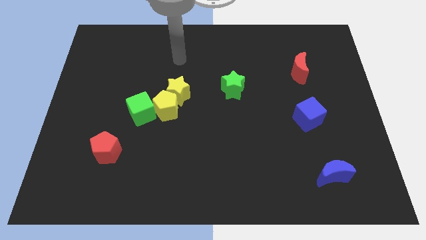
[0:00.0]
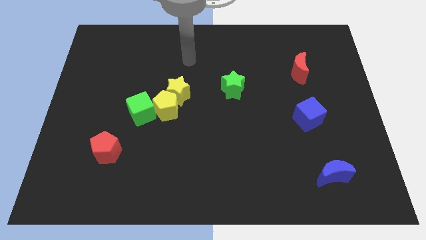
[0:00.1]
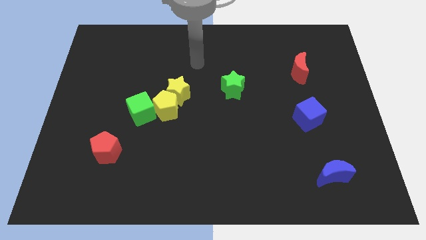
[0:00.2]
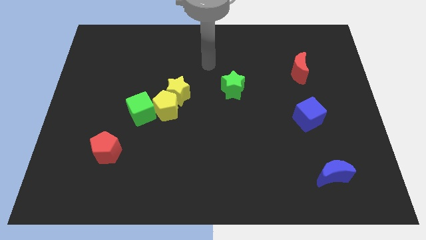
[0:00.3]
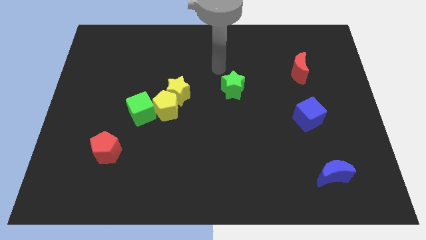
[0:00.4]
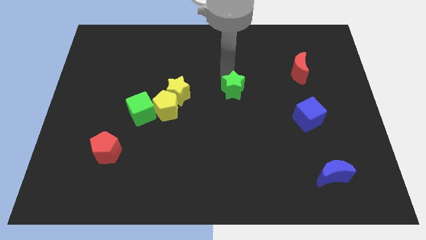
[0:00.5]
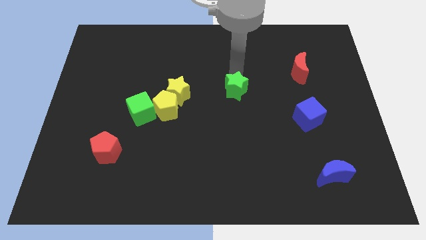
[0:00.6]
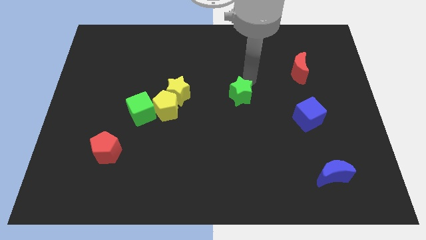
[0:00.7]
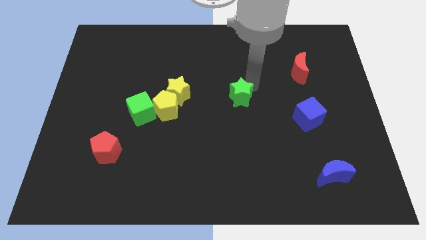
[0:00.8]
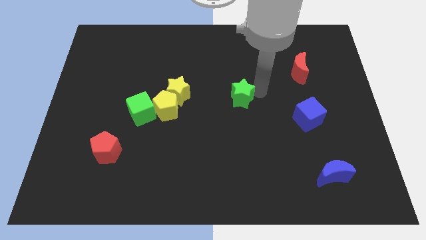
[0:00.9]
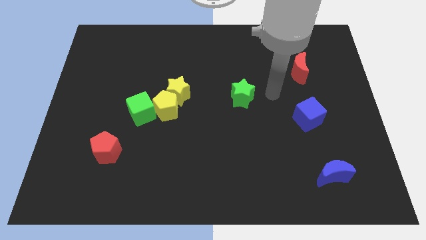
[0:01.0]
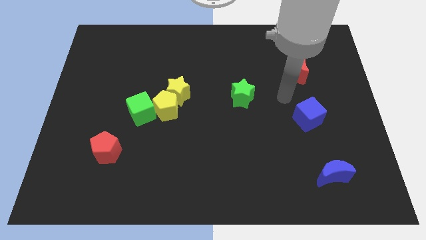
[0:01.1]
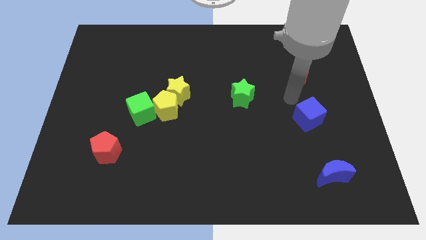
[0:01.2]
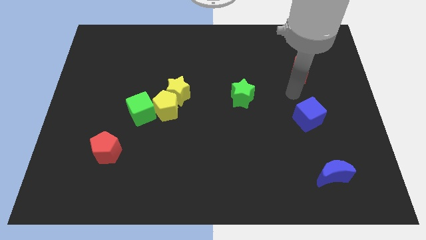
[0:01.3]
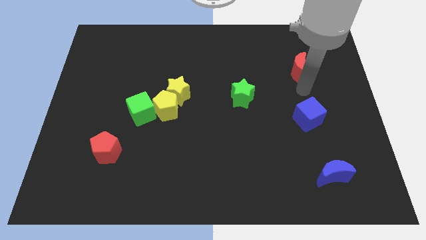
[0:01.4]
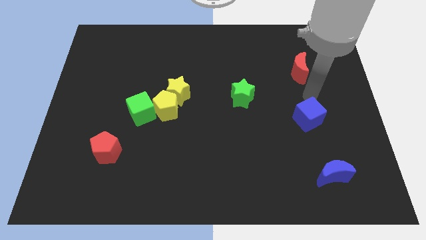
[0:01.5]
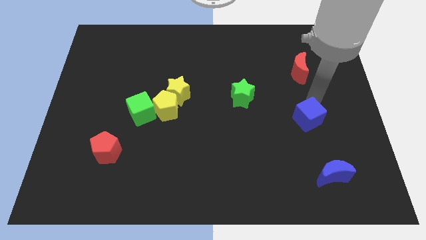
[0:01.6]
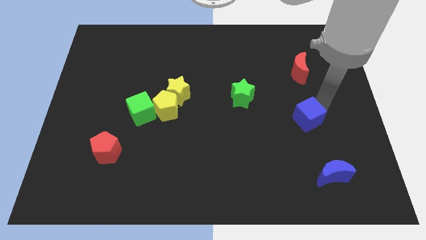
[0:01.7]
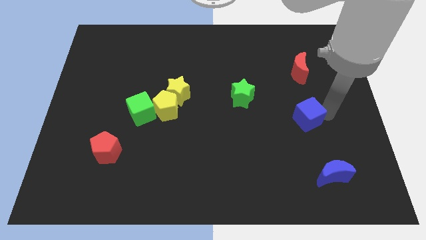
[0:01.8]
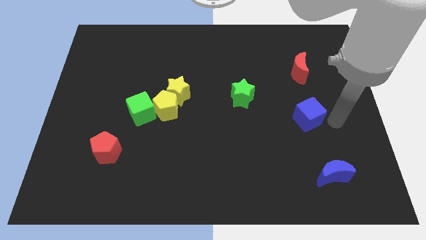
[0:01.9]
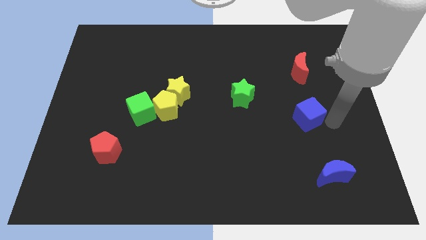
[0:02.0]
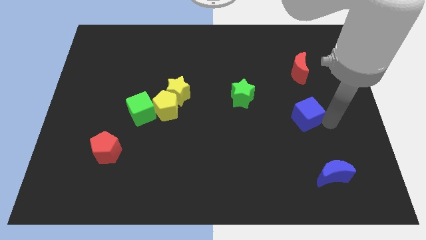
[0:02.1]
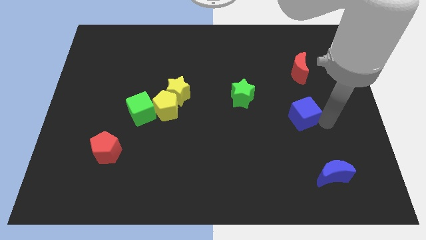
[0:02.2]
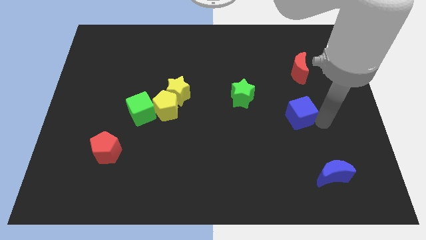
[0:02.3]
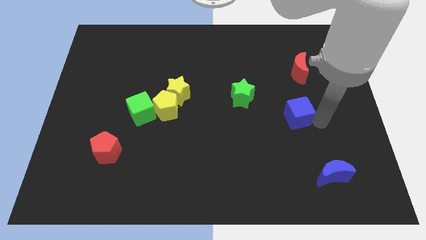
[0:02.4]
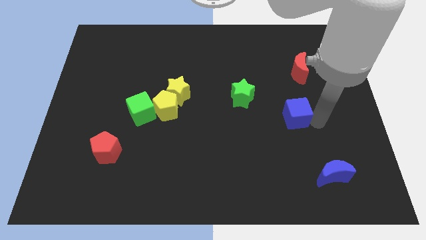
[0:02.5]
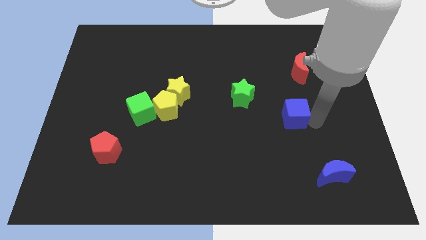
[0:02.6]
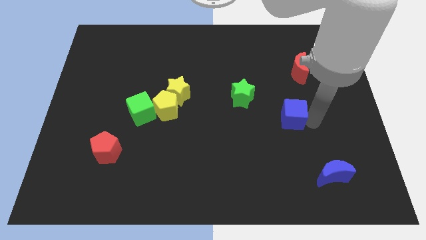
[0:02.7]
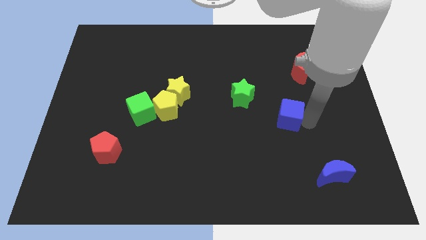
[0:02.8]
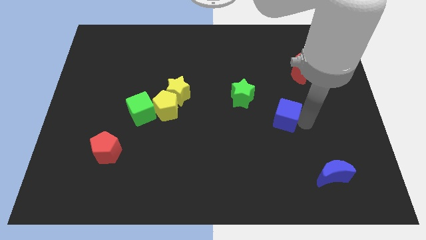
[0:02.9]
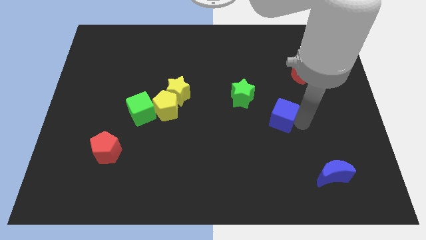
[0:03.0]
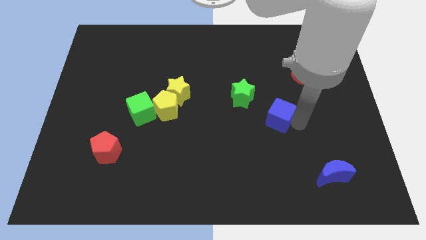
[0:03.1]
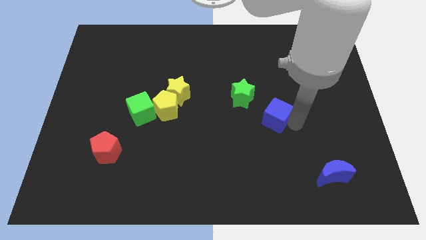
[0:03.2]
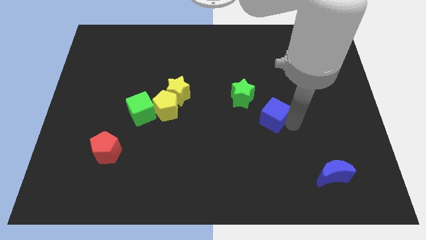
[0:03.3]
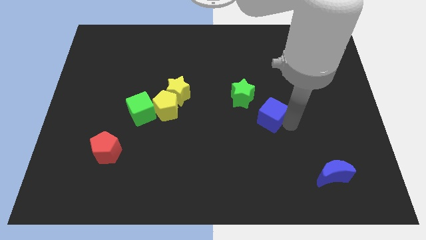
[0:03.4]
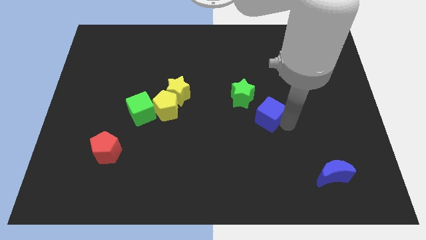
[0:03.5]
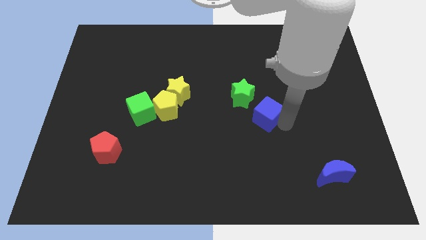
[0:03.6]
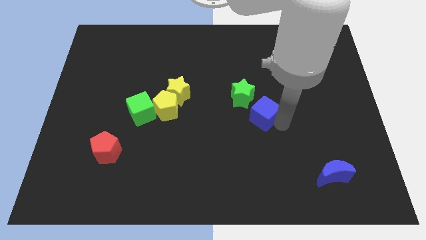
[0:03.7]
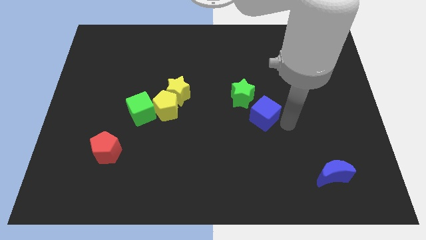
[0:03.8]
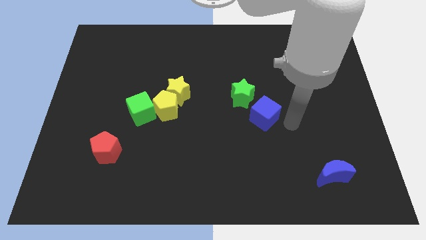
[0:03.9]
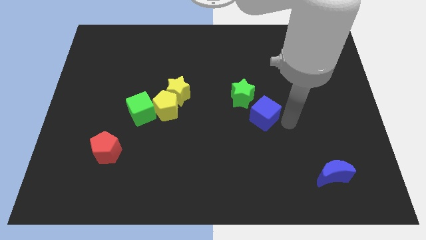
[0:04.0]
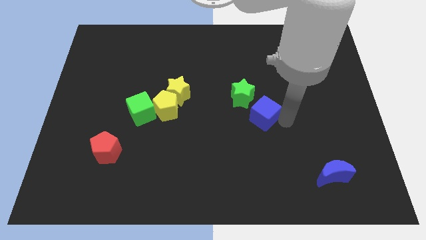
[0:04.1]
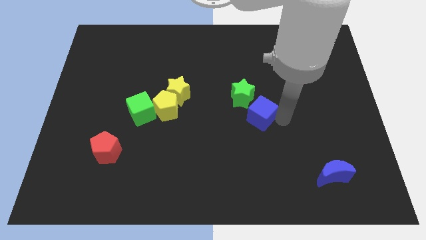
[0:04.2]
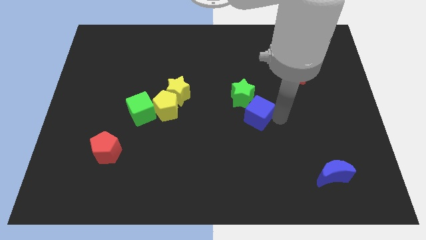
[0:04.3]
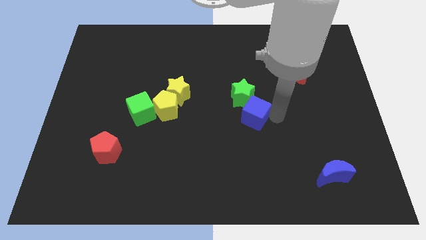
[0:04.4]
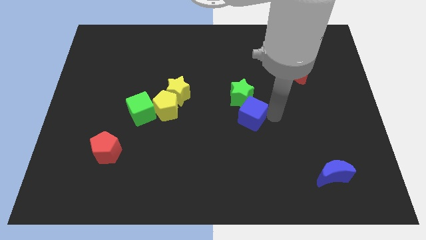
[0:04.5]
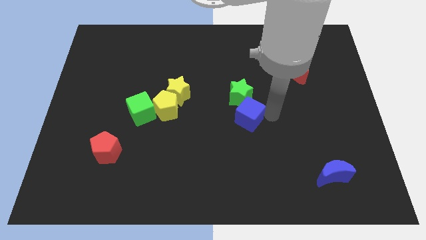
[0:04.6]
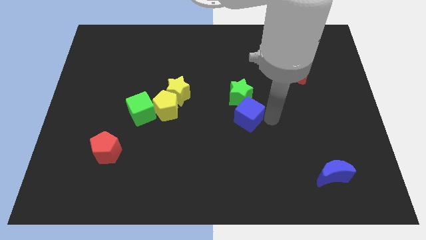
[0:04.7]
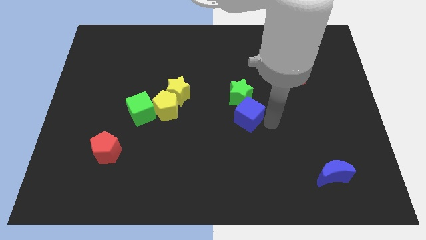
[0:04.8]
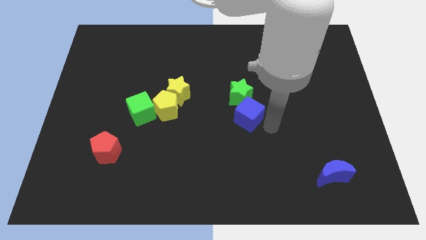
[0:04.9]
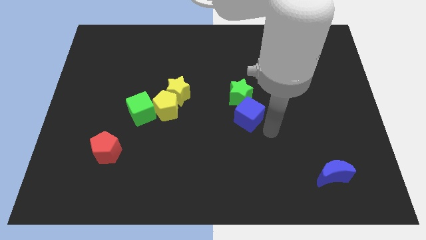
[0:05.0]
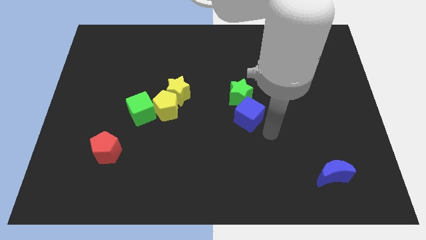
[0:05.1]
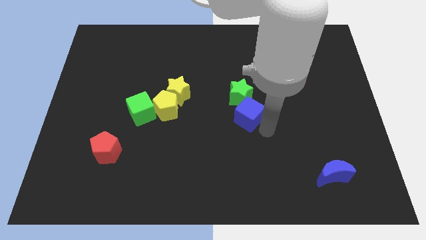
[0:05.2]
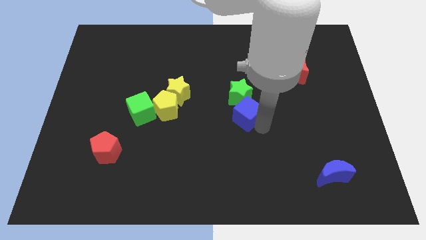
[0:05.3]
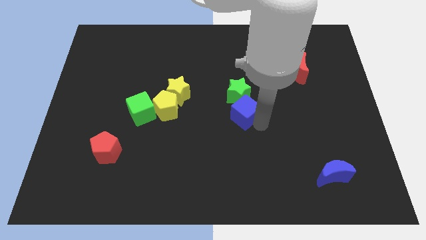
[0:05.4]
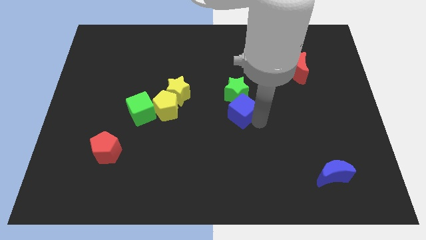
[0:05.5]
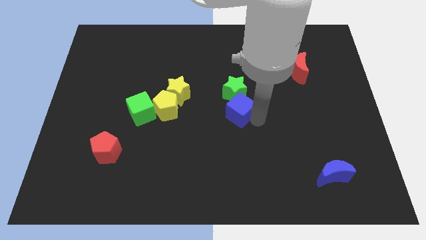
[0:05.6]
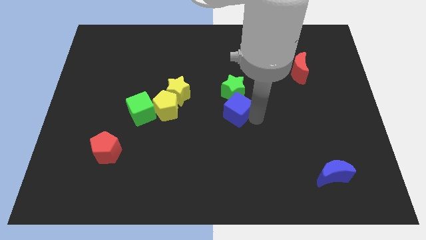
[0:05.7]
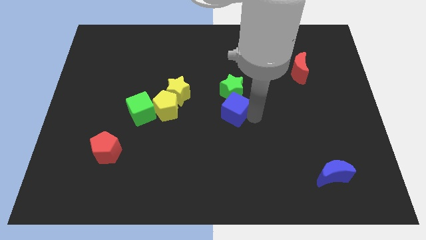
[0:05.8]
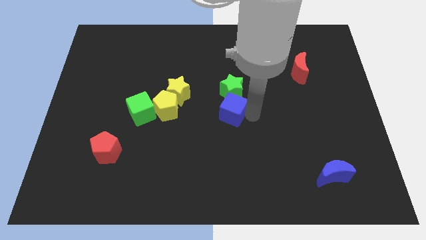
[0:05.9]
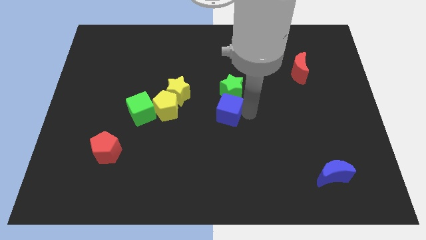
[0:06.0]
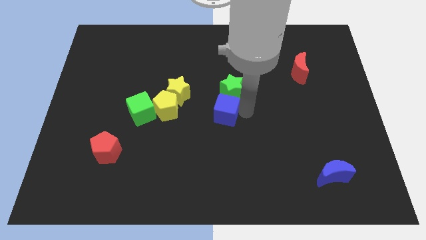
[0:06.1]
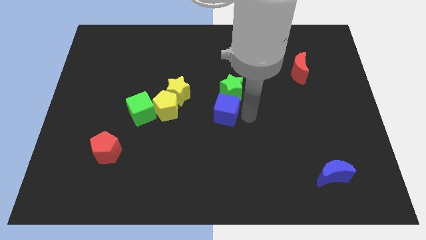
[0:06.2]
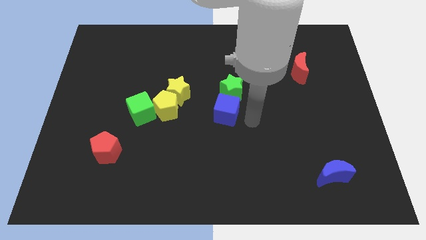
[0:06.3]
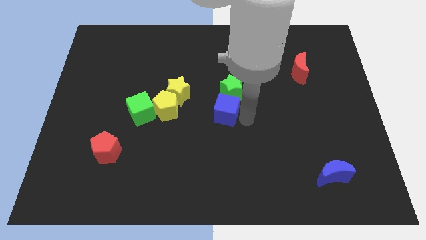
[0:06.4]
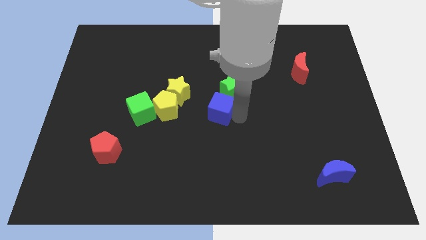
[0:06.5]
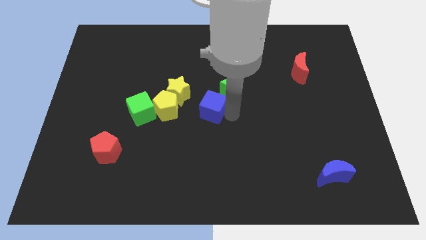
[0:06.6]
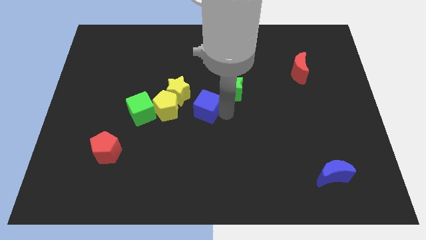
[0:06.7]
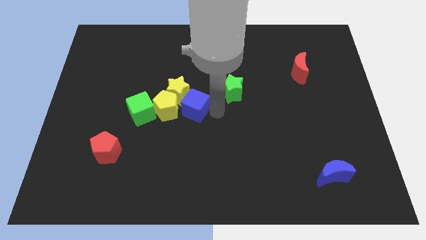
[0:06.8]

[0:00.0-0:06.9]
put the blue cube next to the yellow star
